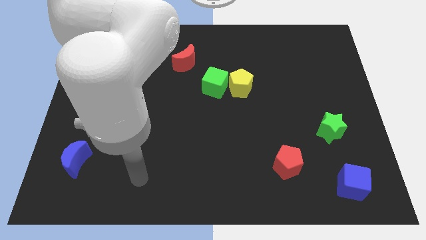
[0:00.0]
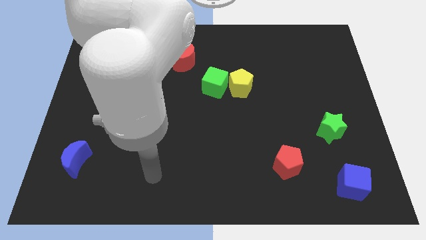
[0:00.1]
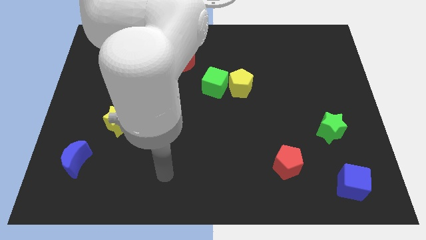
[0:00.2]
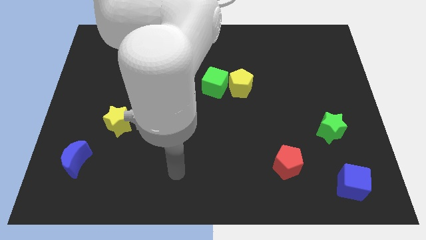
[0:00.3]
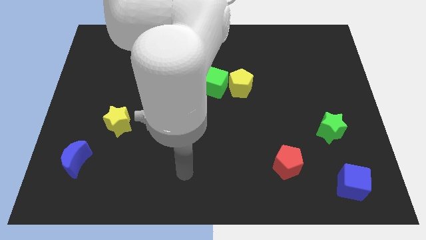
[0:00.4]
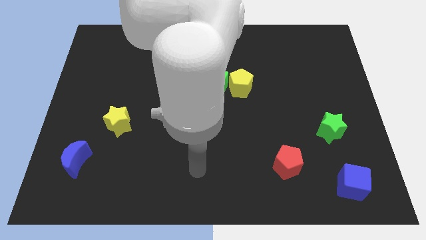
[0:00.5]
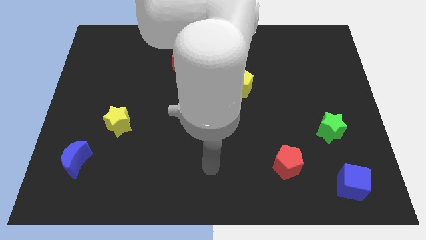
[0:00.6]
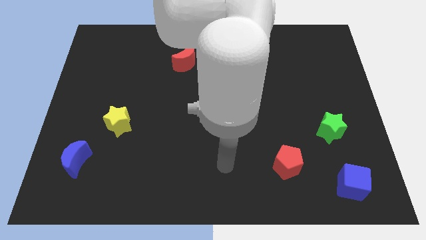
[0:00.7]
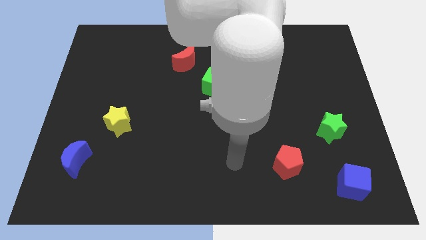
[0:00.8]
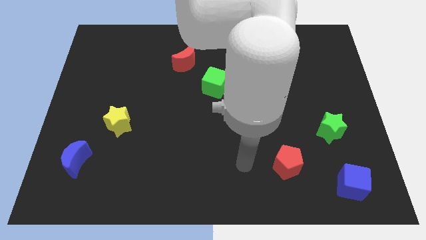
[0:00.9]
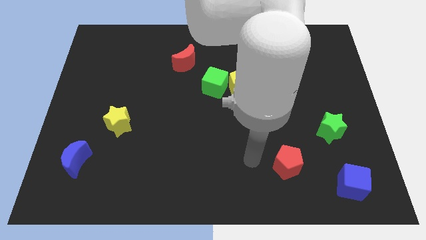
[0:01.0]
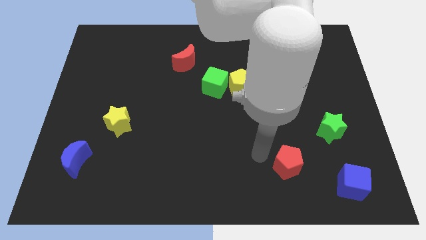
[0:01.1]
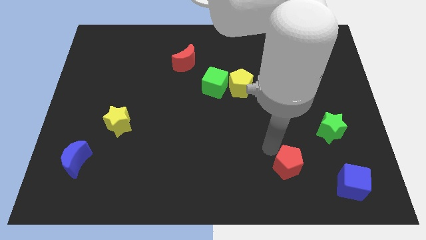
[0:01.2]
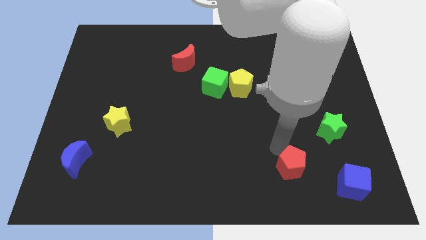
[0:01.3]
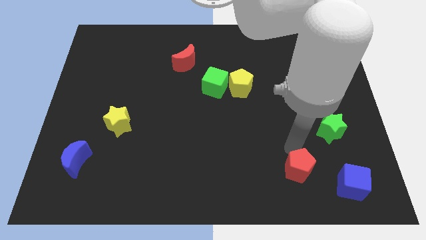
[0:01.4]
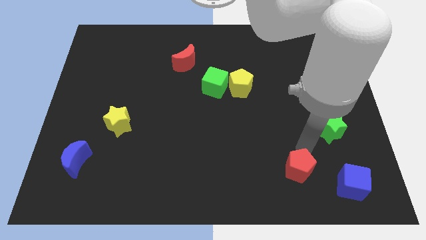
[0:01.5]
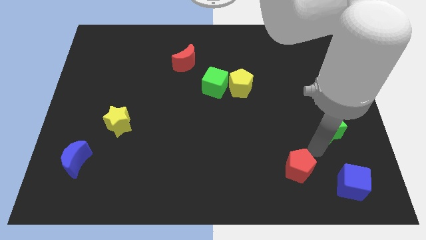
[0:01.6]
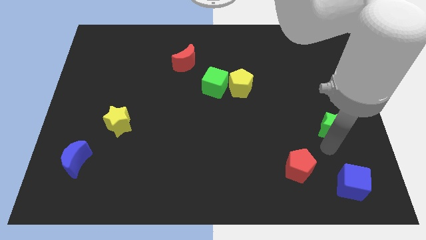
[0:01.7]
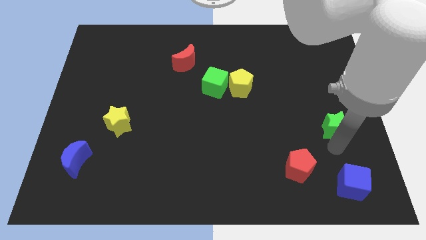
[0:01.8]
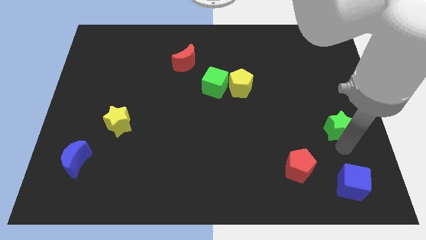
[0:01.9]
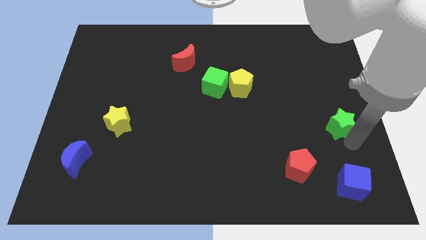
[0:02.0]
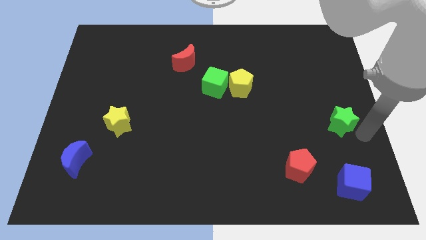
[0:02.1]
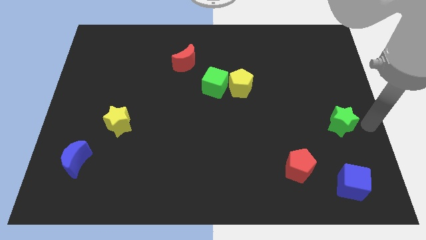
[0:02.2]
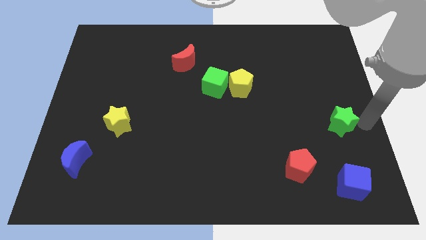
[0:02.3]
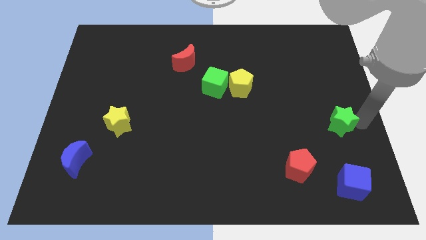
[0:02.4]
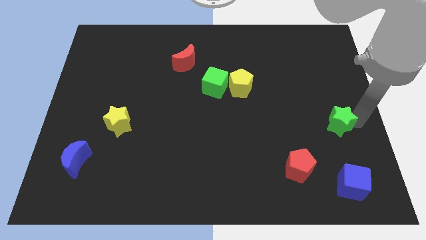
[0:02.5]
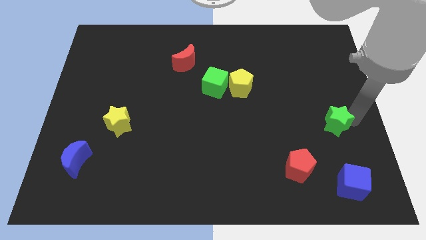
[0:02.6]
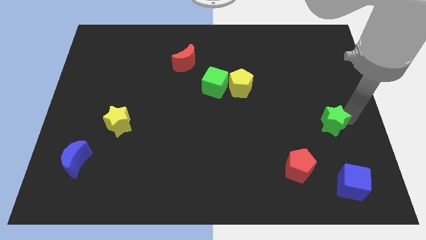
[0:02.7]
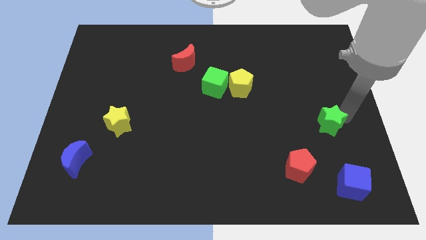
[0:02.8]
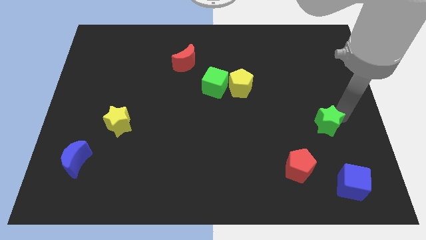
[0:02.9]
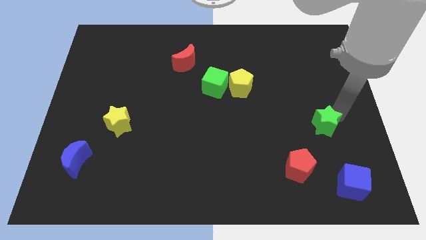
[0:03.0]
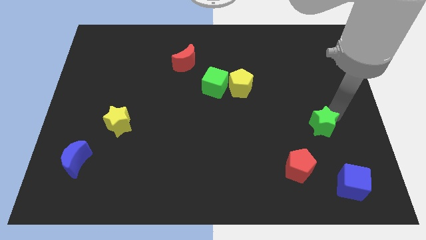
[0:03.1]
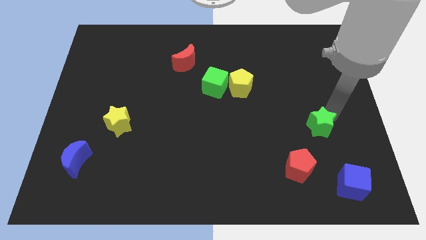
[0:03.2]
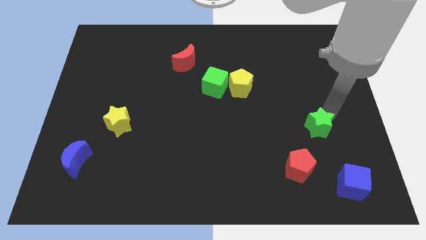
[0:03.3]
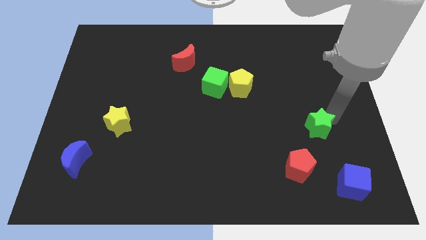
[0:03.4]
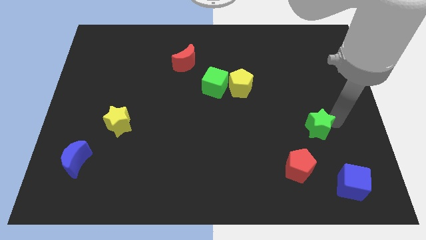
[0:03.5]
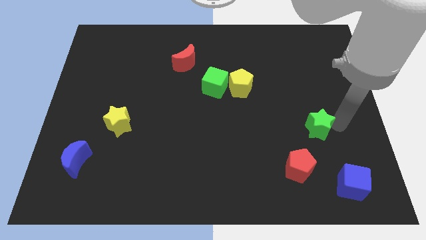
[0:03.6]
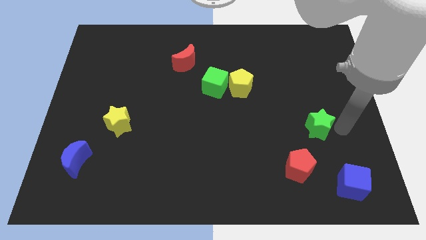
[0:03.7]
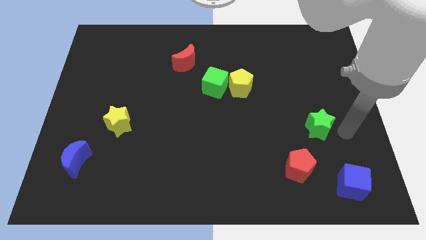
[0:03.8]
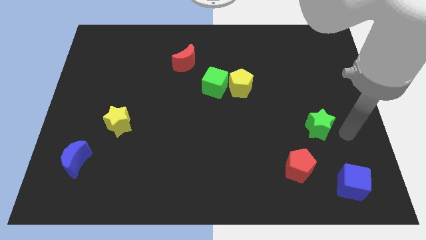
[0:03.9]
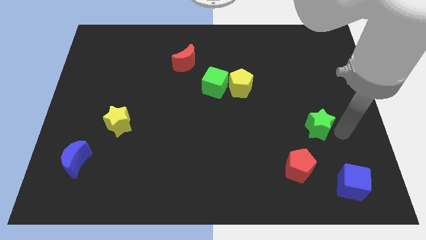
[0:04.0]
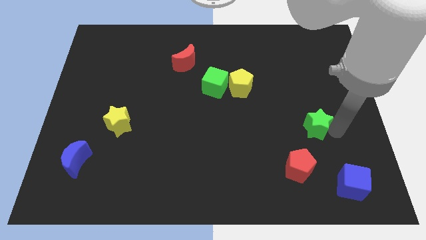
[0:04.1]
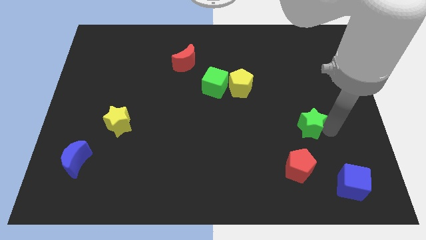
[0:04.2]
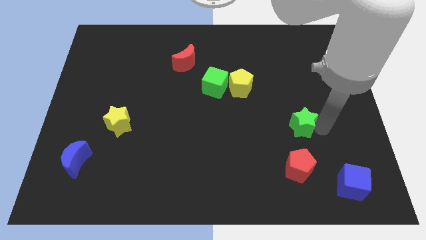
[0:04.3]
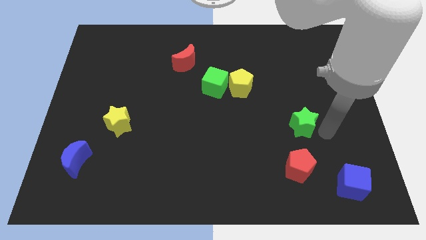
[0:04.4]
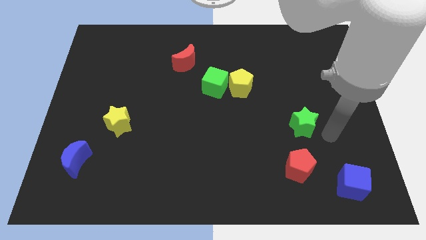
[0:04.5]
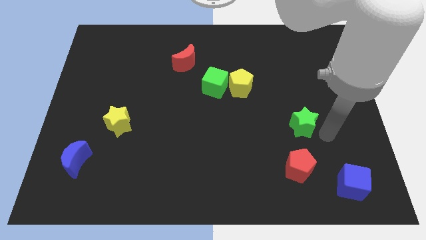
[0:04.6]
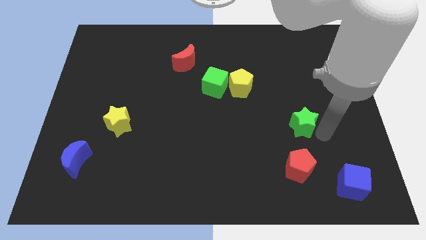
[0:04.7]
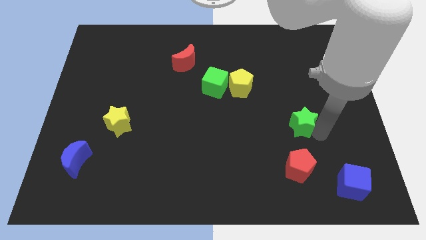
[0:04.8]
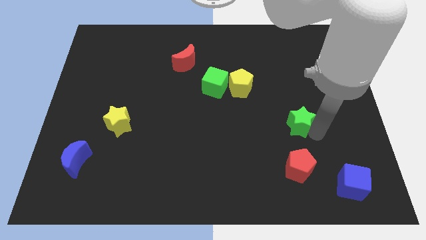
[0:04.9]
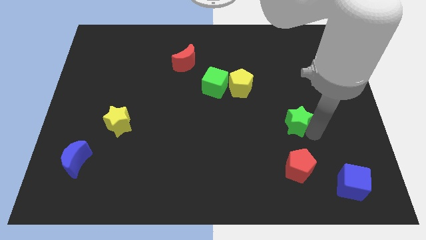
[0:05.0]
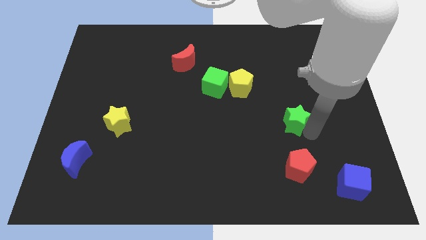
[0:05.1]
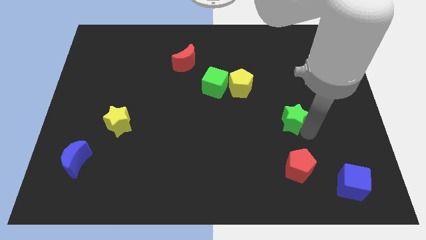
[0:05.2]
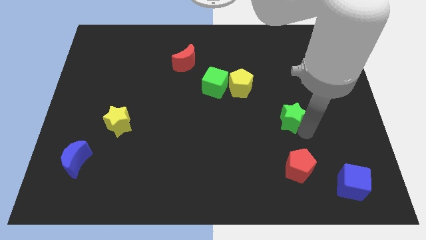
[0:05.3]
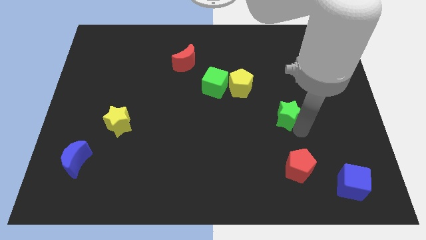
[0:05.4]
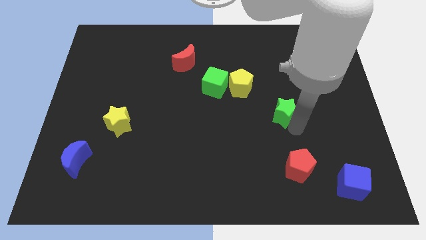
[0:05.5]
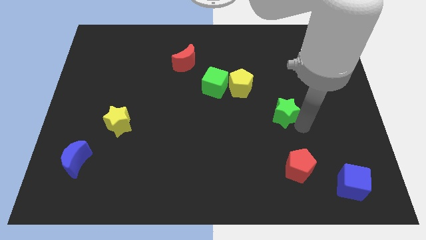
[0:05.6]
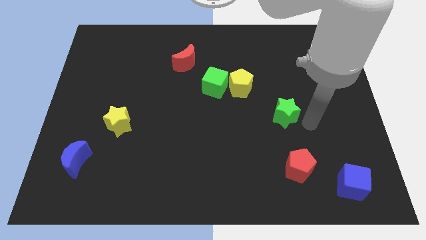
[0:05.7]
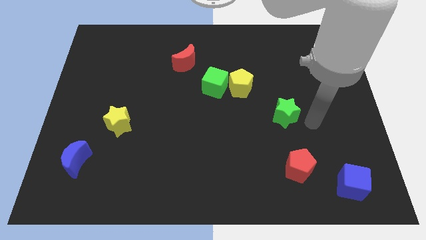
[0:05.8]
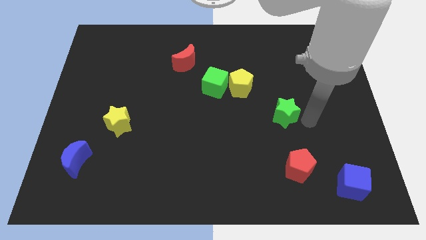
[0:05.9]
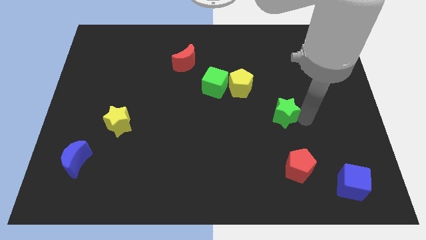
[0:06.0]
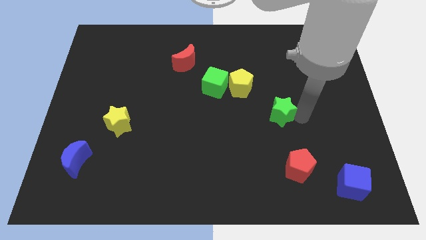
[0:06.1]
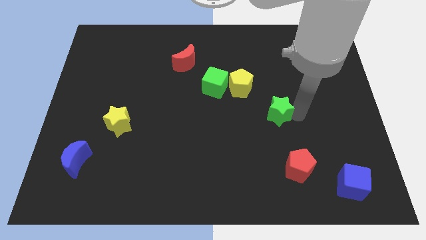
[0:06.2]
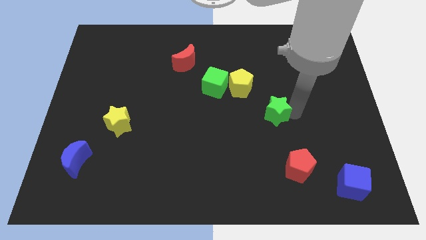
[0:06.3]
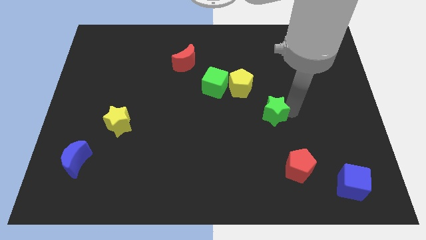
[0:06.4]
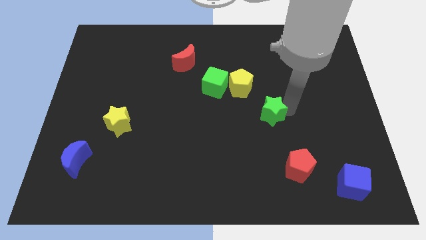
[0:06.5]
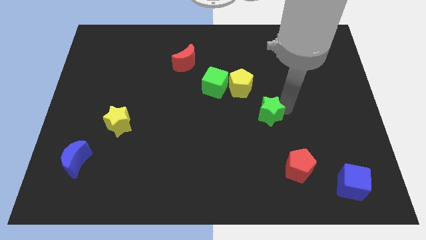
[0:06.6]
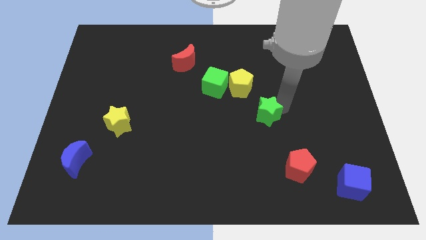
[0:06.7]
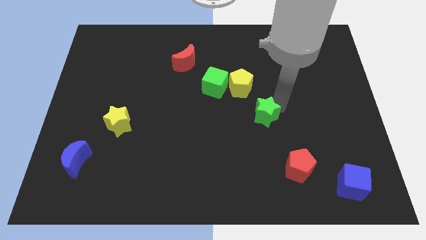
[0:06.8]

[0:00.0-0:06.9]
put the green star to the center
